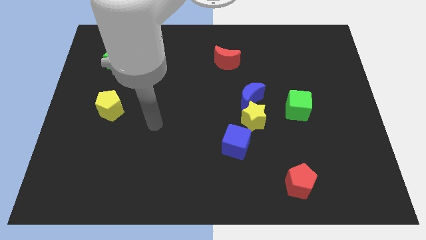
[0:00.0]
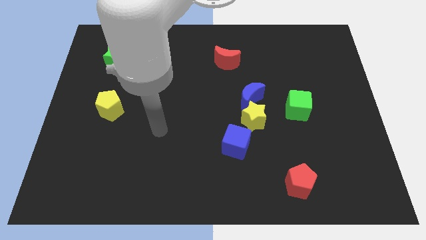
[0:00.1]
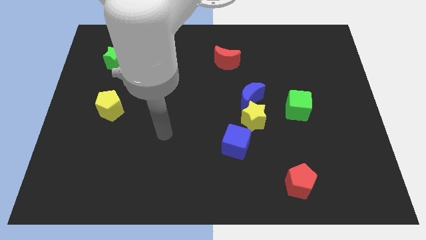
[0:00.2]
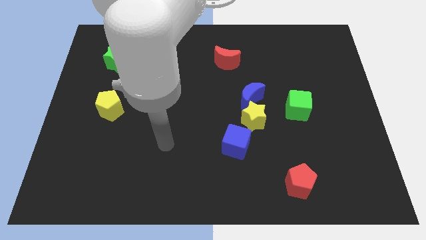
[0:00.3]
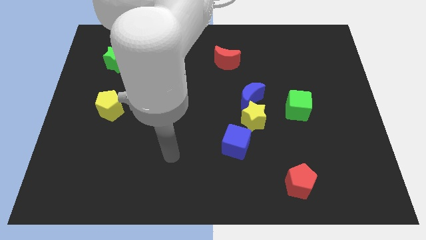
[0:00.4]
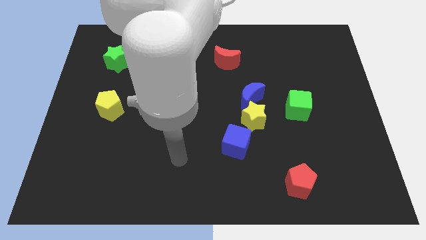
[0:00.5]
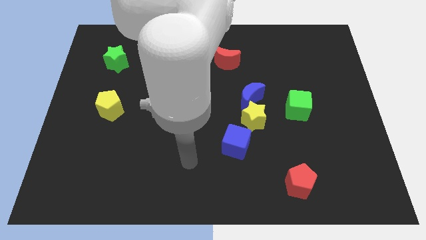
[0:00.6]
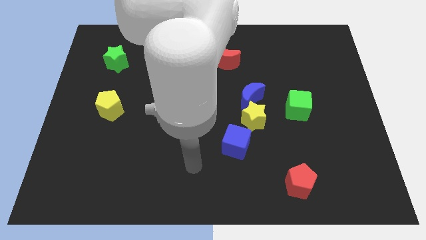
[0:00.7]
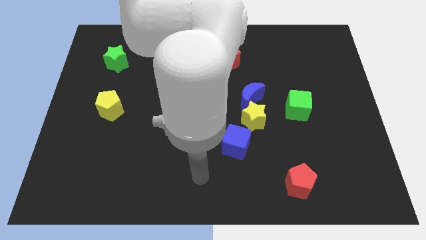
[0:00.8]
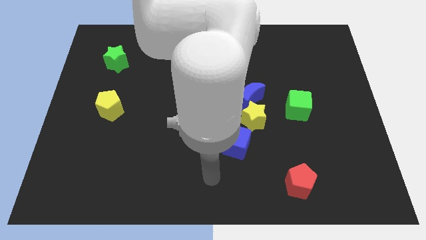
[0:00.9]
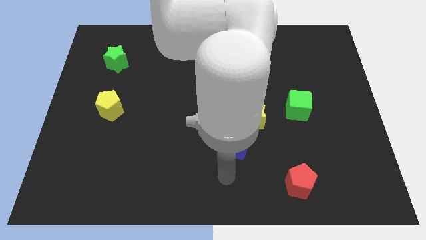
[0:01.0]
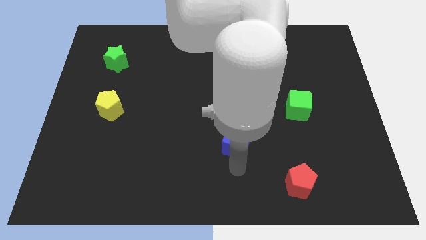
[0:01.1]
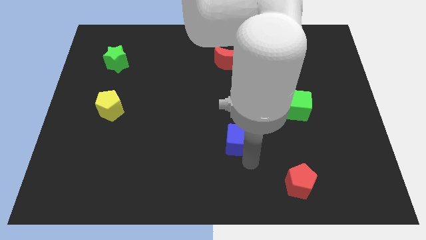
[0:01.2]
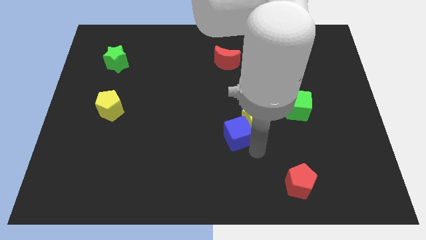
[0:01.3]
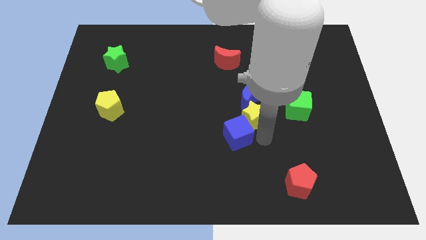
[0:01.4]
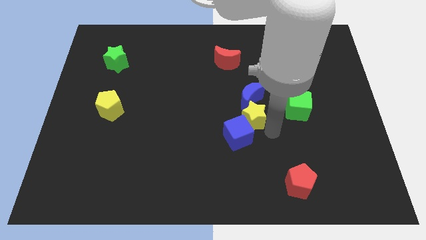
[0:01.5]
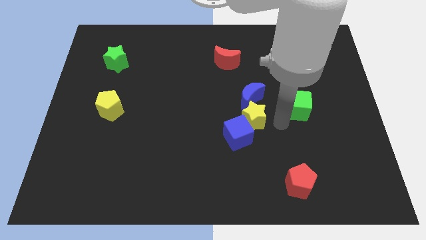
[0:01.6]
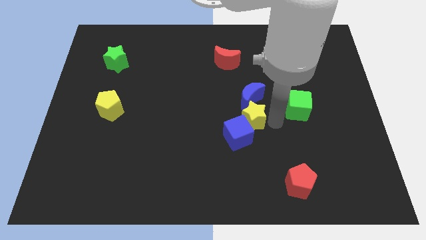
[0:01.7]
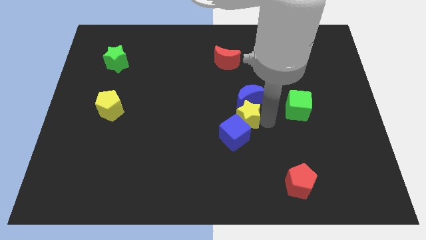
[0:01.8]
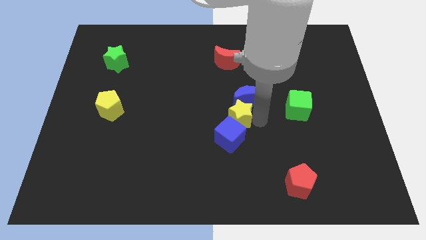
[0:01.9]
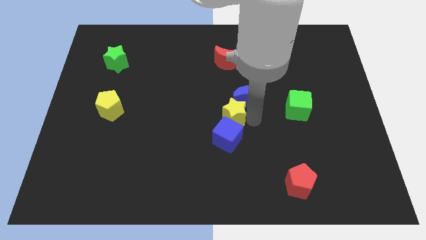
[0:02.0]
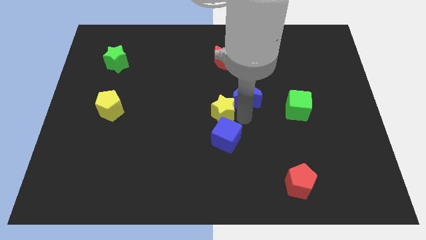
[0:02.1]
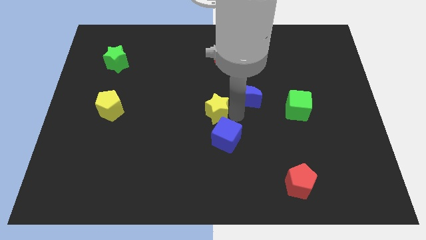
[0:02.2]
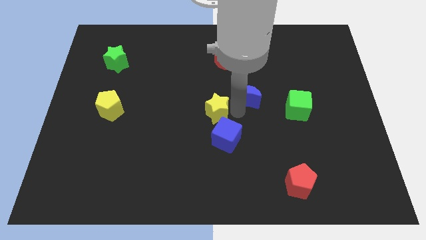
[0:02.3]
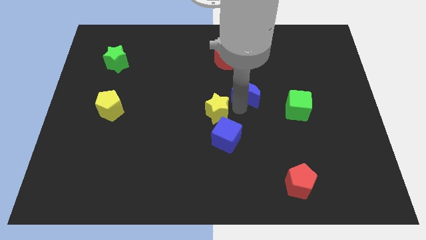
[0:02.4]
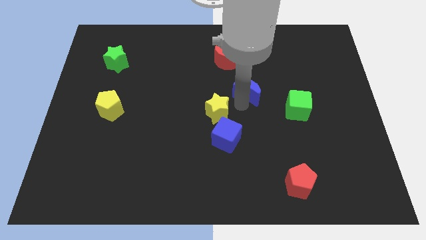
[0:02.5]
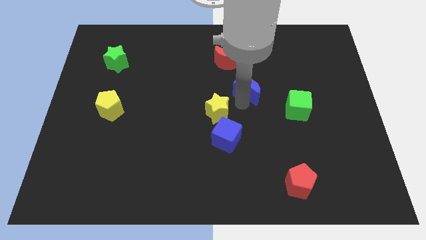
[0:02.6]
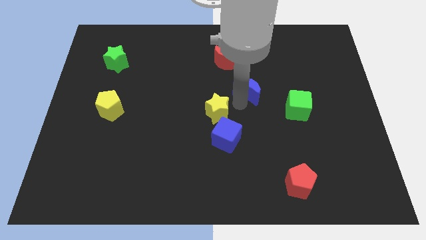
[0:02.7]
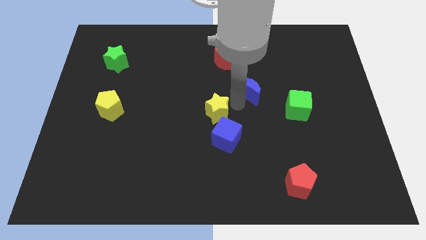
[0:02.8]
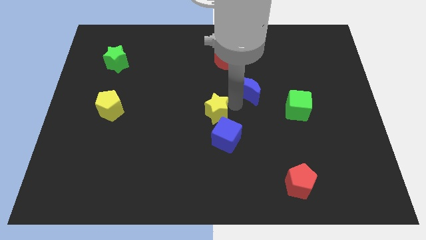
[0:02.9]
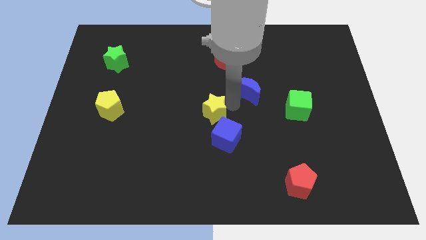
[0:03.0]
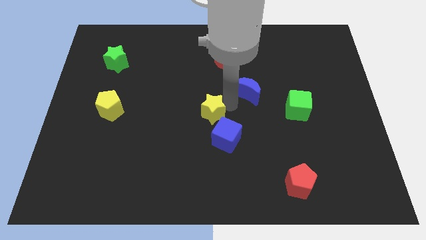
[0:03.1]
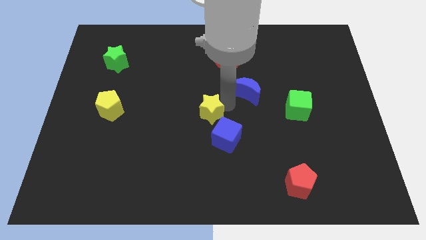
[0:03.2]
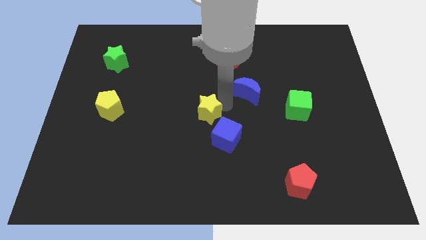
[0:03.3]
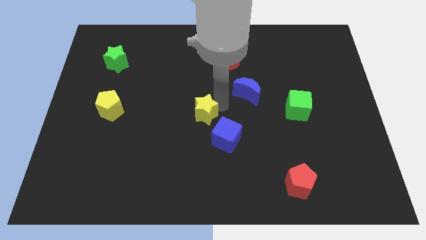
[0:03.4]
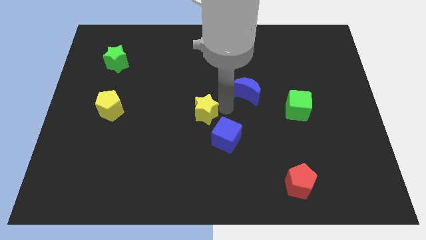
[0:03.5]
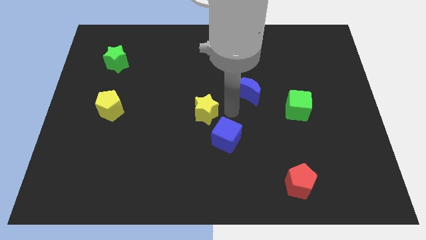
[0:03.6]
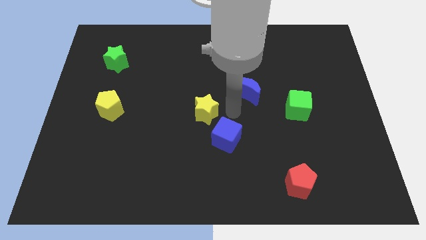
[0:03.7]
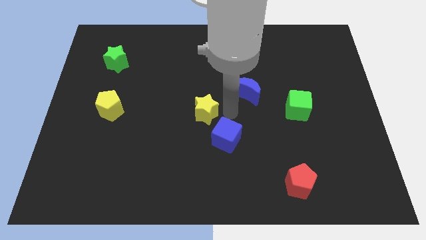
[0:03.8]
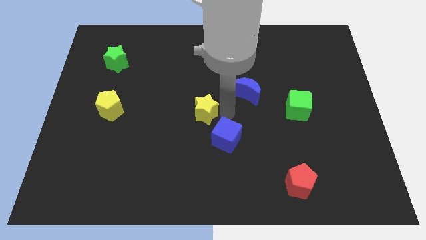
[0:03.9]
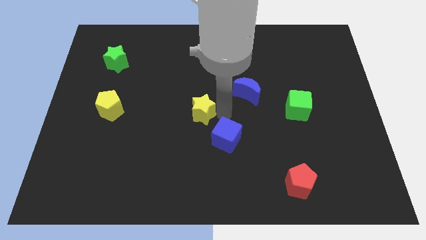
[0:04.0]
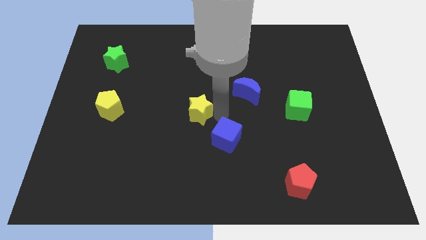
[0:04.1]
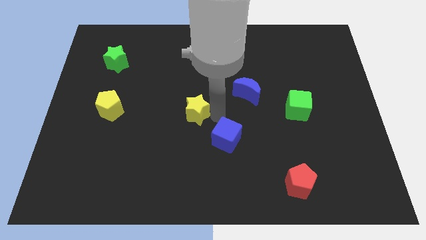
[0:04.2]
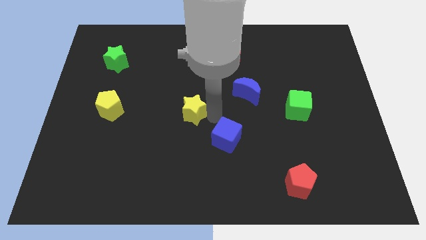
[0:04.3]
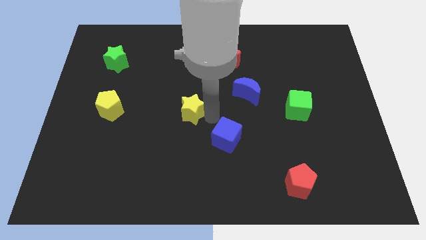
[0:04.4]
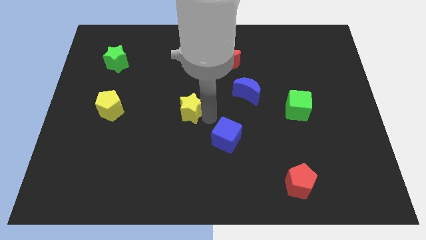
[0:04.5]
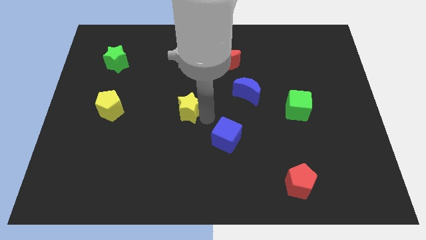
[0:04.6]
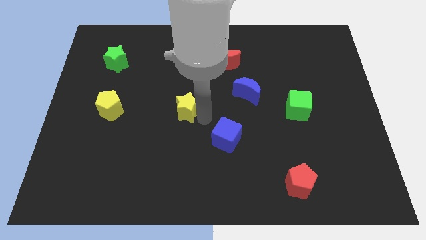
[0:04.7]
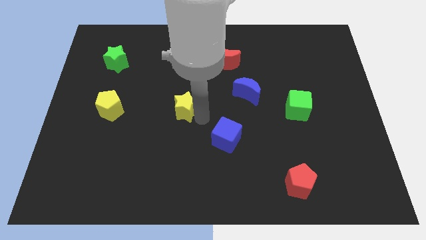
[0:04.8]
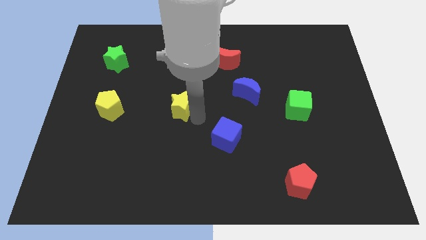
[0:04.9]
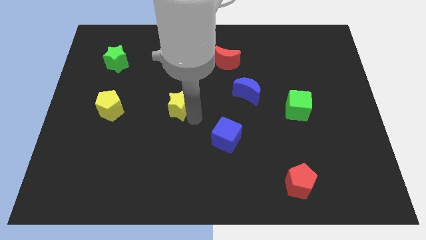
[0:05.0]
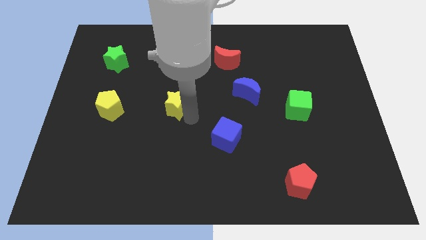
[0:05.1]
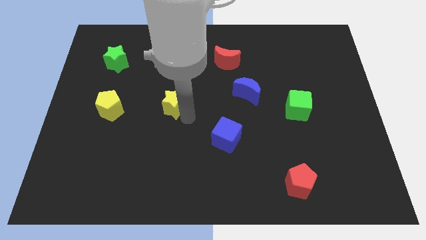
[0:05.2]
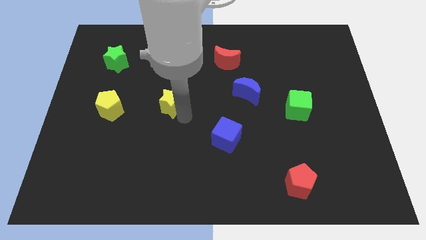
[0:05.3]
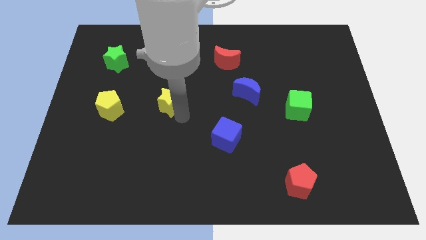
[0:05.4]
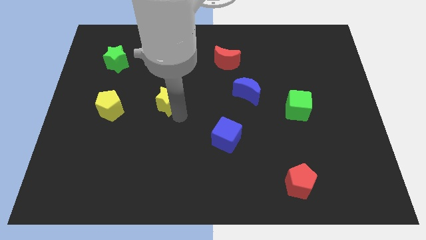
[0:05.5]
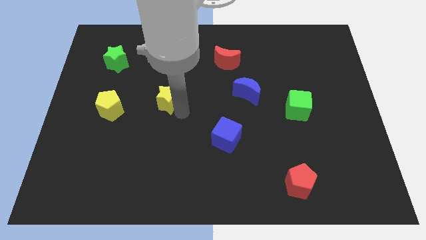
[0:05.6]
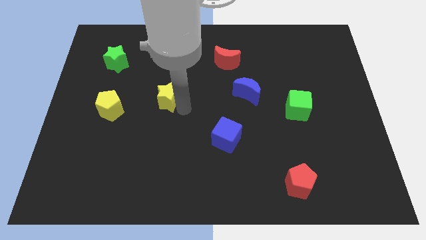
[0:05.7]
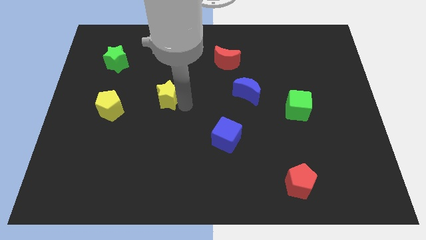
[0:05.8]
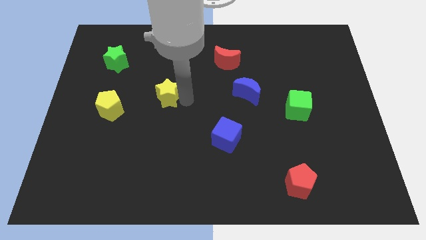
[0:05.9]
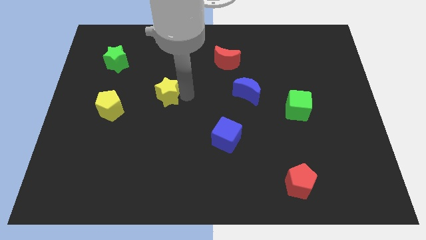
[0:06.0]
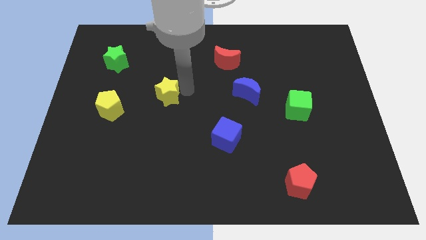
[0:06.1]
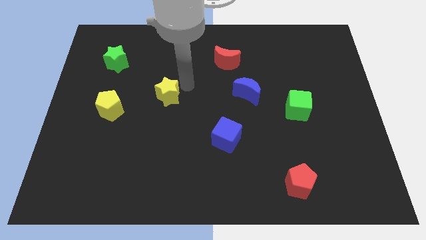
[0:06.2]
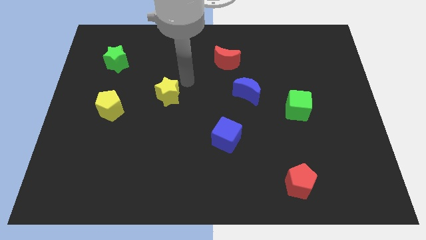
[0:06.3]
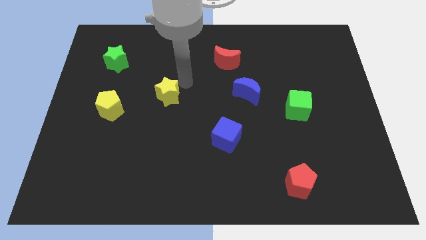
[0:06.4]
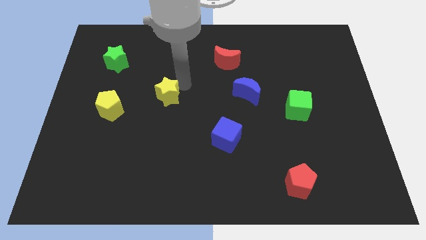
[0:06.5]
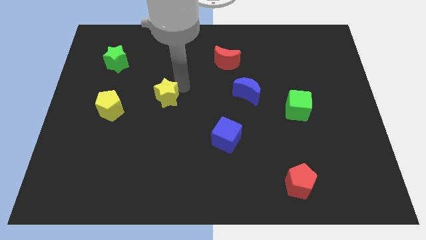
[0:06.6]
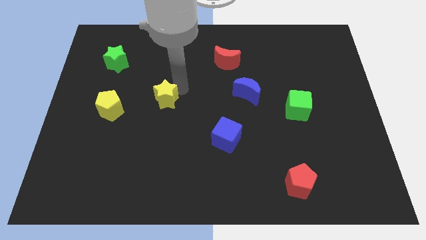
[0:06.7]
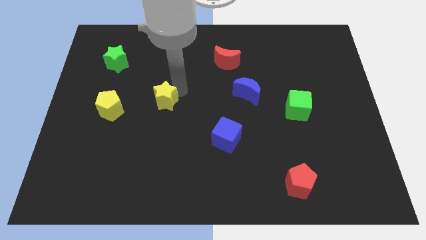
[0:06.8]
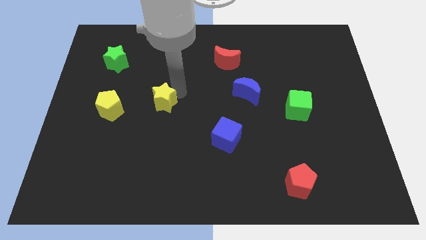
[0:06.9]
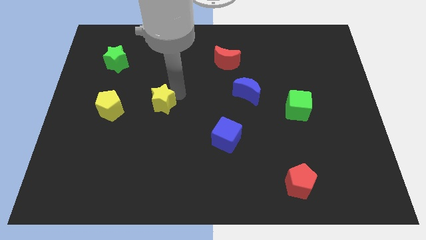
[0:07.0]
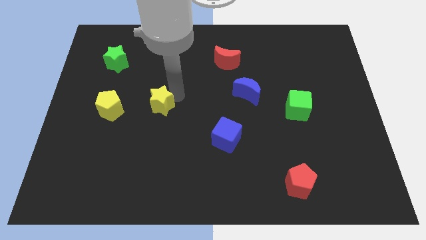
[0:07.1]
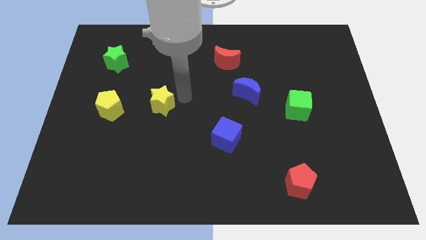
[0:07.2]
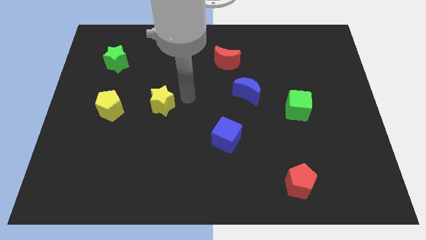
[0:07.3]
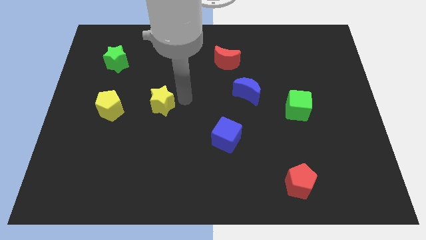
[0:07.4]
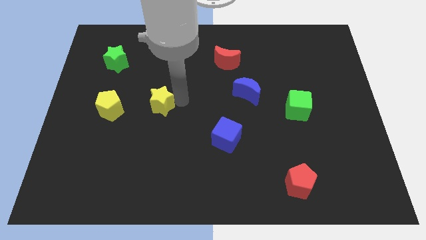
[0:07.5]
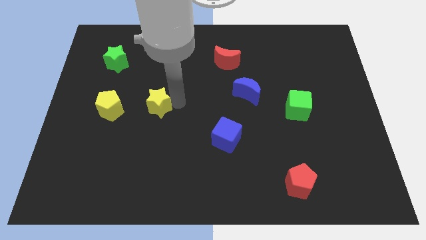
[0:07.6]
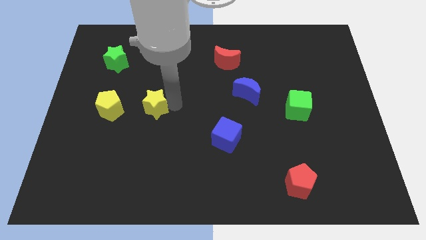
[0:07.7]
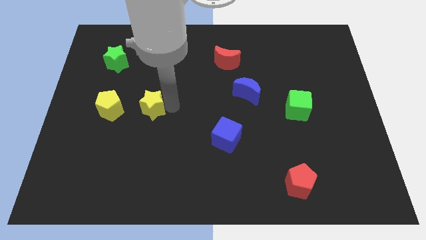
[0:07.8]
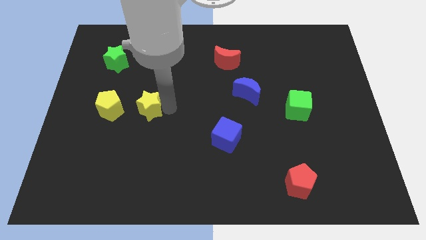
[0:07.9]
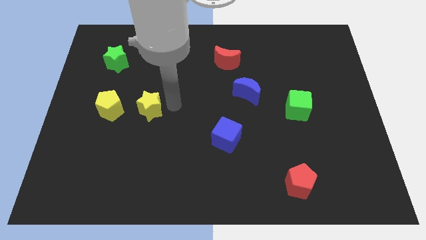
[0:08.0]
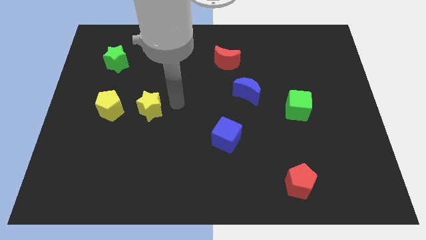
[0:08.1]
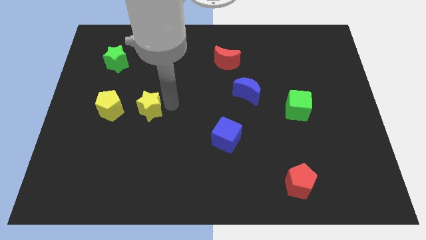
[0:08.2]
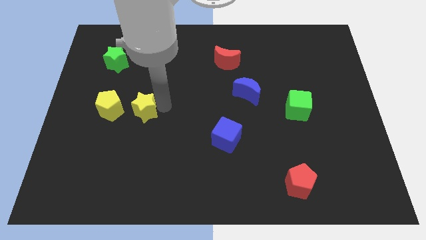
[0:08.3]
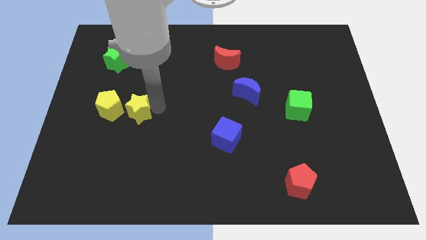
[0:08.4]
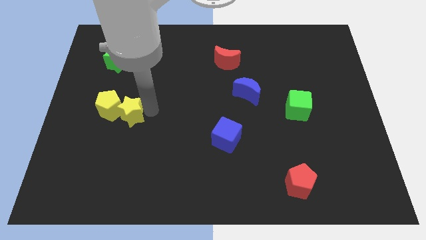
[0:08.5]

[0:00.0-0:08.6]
push the yellow star to the yellow pentagon
